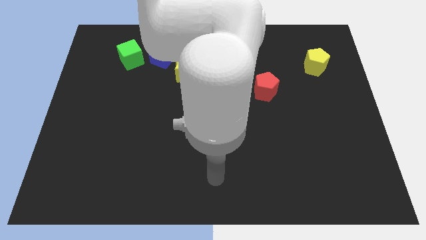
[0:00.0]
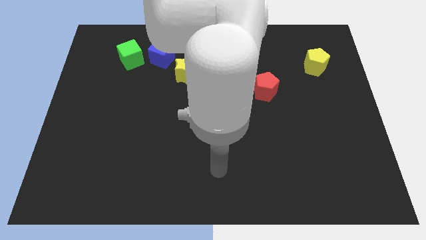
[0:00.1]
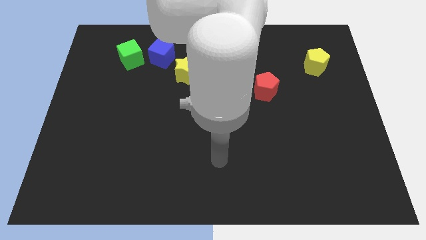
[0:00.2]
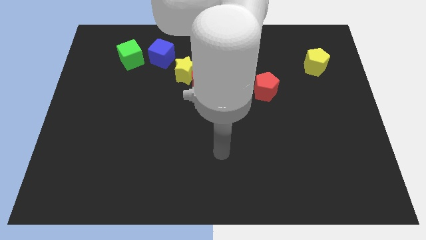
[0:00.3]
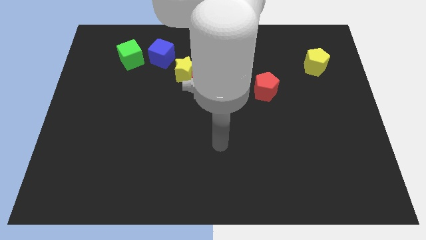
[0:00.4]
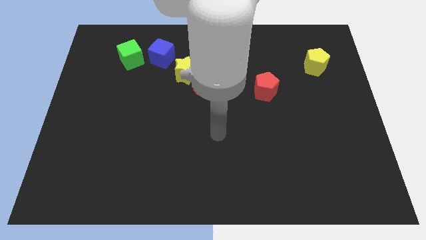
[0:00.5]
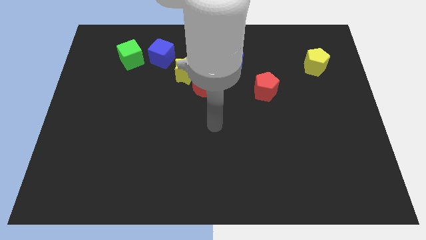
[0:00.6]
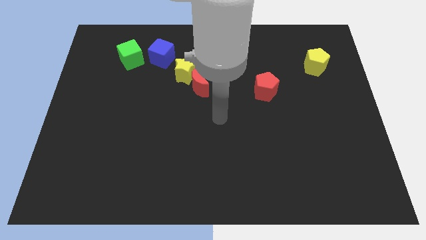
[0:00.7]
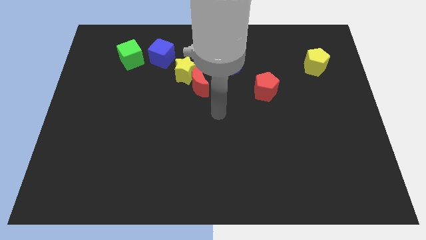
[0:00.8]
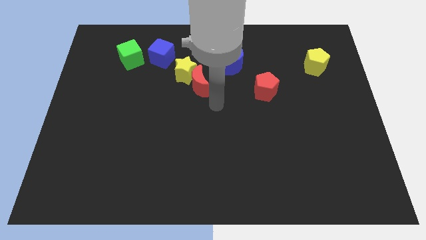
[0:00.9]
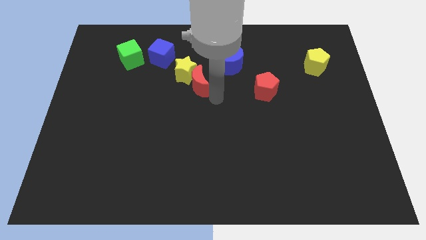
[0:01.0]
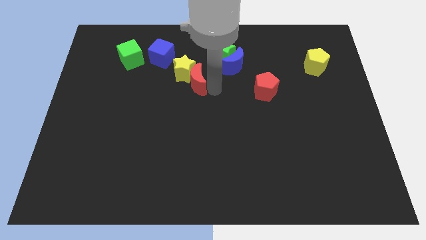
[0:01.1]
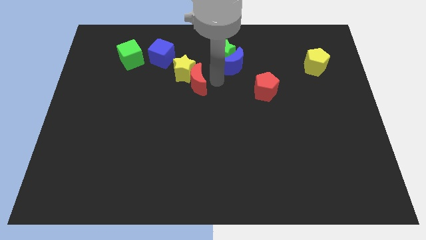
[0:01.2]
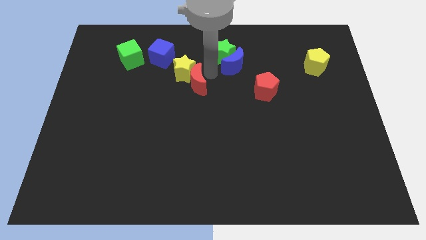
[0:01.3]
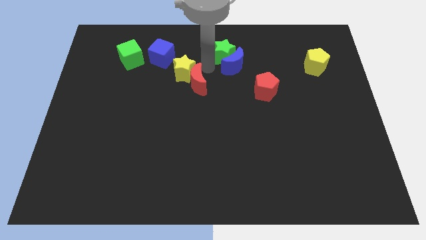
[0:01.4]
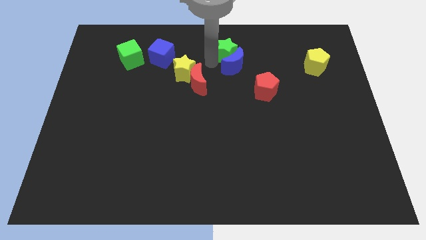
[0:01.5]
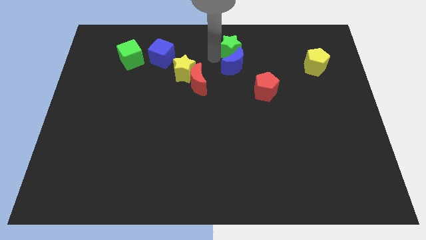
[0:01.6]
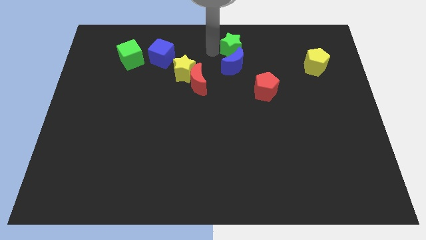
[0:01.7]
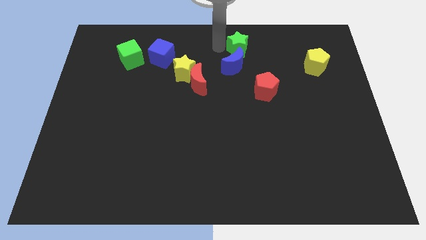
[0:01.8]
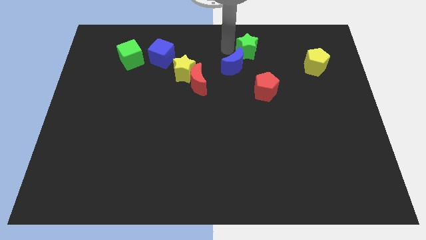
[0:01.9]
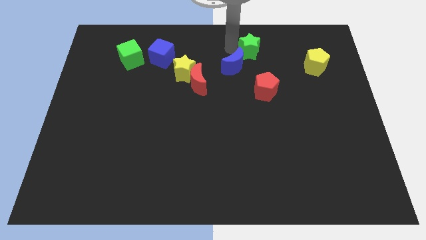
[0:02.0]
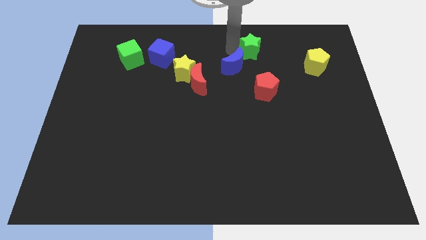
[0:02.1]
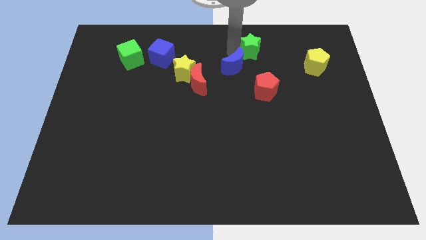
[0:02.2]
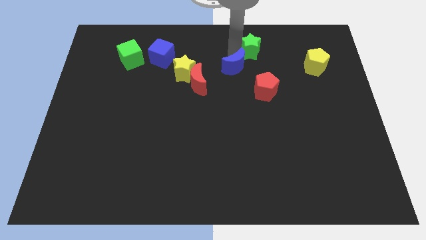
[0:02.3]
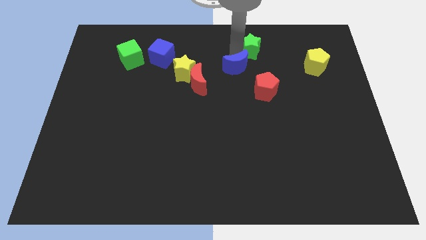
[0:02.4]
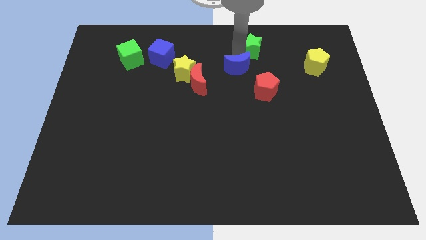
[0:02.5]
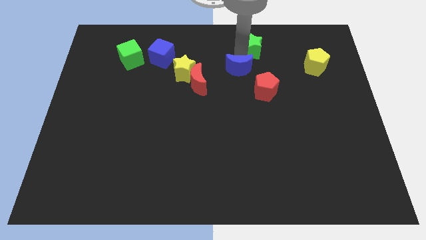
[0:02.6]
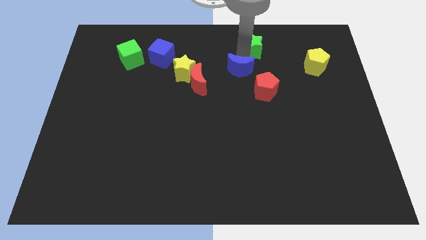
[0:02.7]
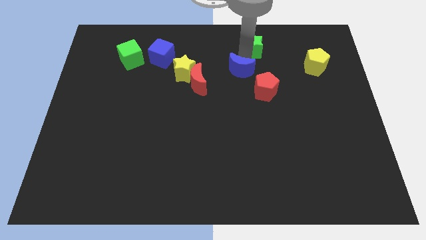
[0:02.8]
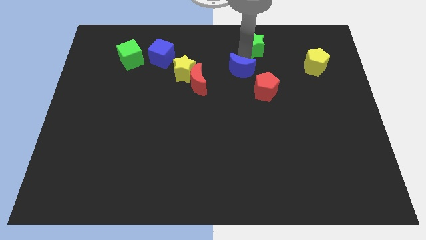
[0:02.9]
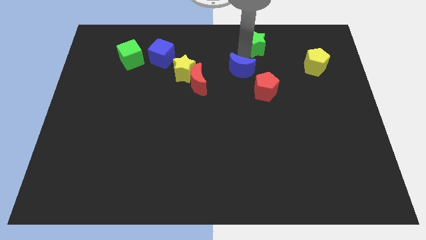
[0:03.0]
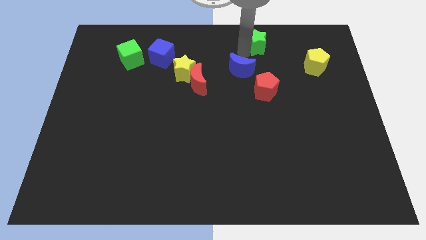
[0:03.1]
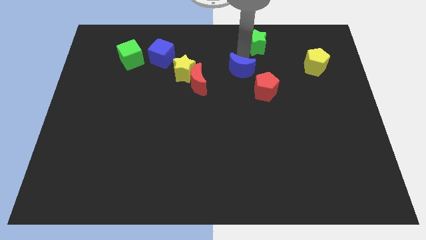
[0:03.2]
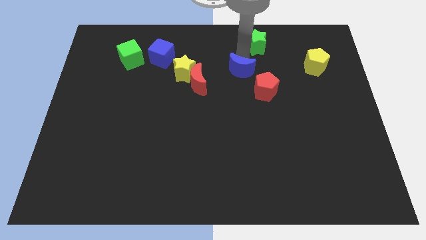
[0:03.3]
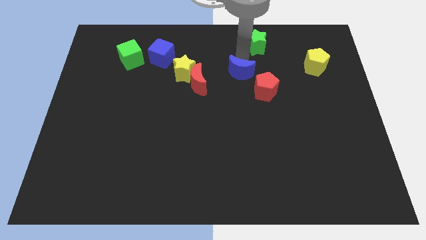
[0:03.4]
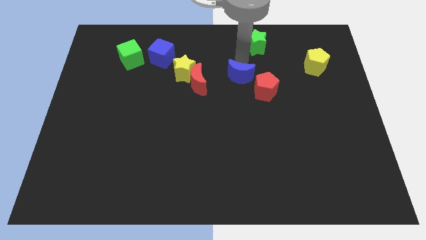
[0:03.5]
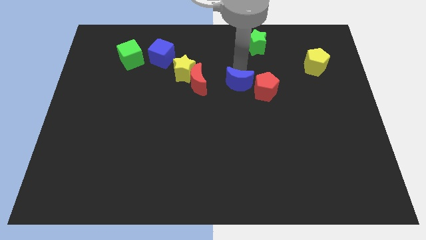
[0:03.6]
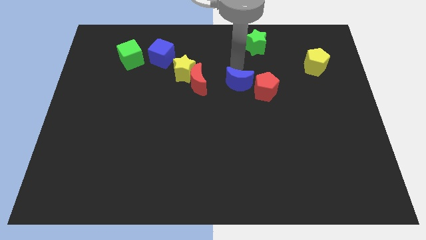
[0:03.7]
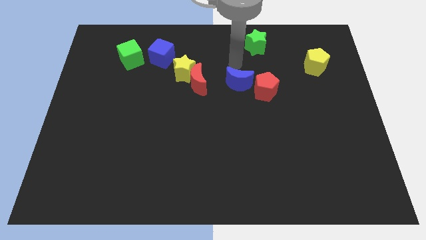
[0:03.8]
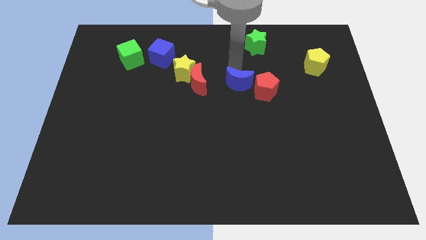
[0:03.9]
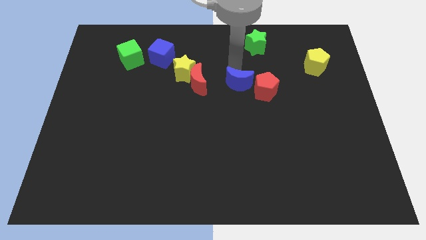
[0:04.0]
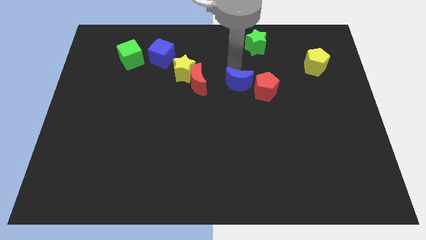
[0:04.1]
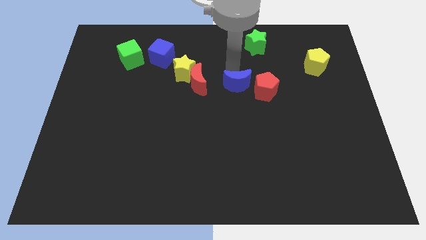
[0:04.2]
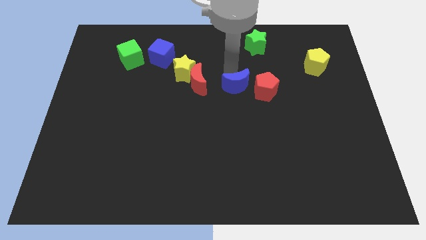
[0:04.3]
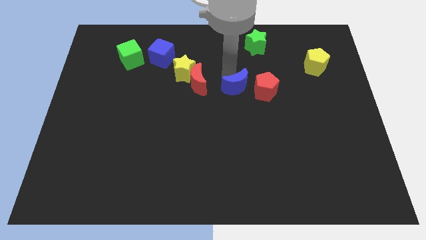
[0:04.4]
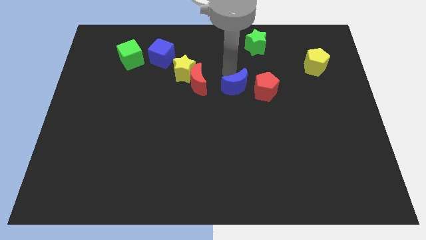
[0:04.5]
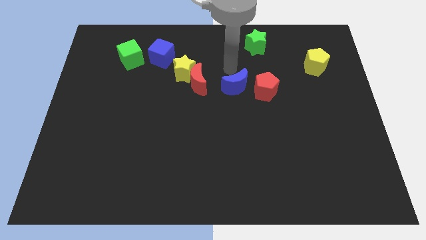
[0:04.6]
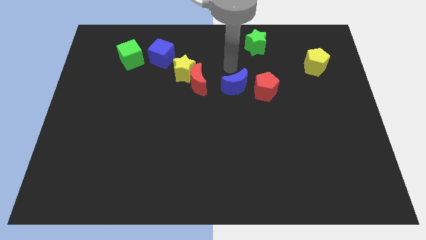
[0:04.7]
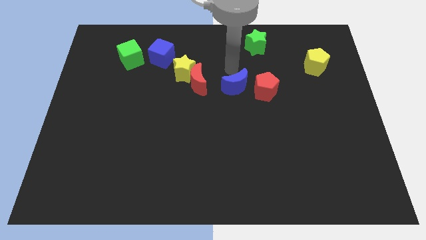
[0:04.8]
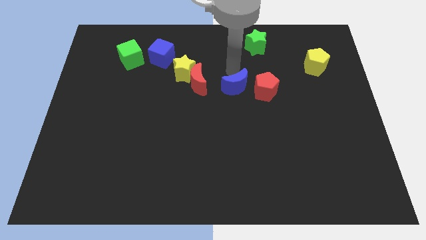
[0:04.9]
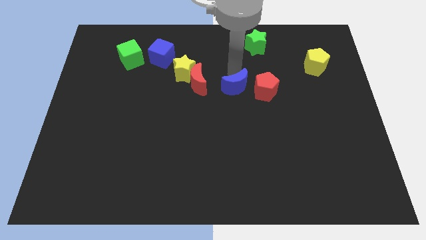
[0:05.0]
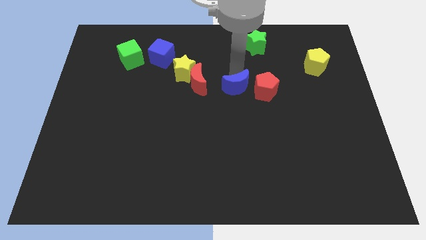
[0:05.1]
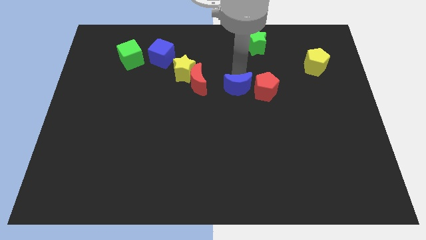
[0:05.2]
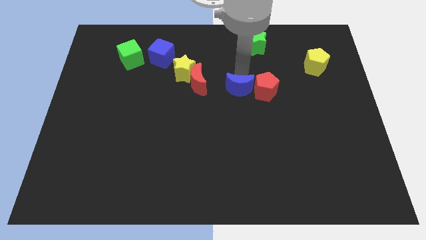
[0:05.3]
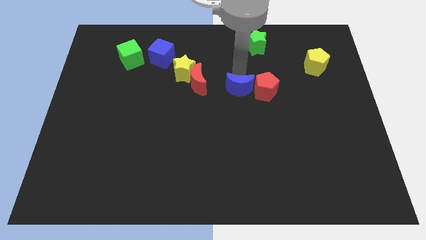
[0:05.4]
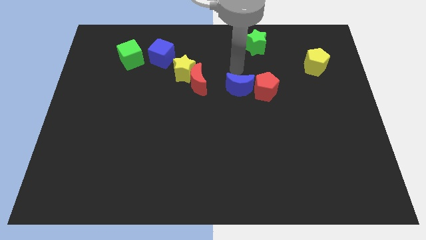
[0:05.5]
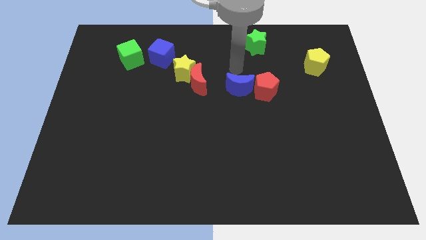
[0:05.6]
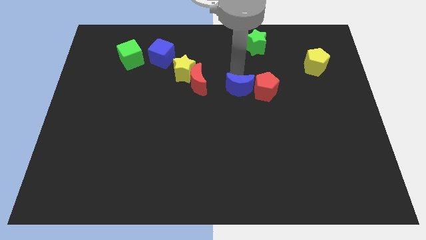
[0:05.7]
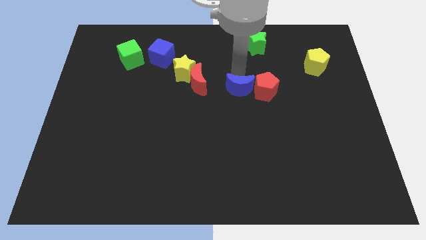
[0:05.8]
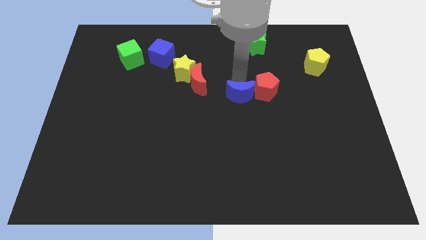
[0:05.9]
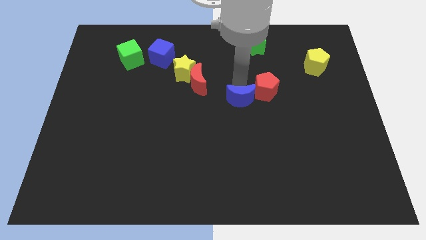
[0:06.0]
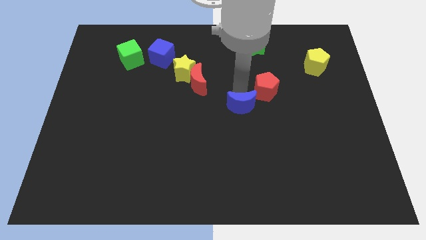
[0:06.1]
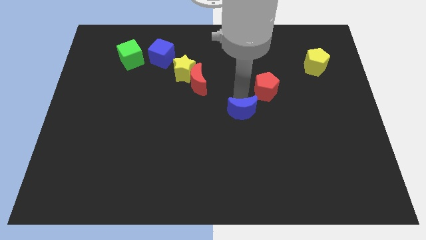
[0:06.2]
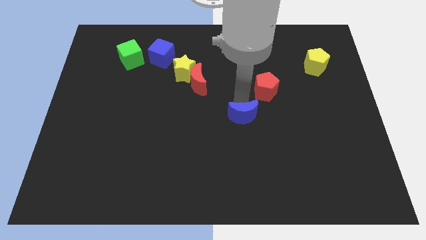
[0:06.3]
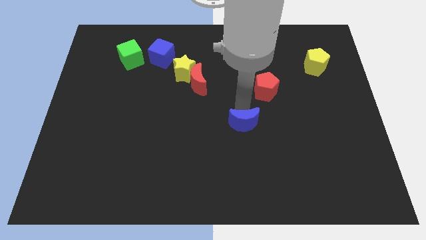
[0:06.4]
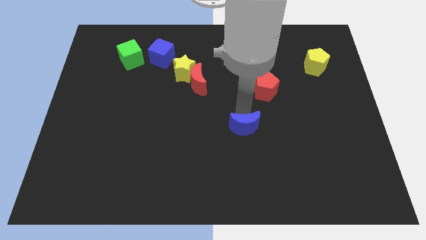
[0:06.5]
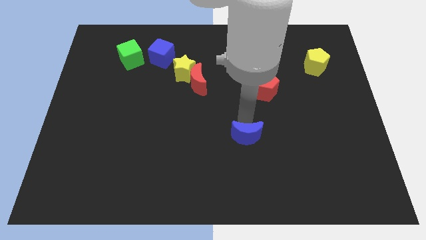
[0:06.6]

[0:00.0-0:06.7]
slide the blue moon down

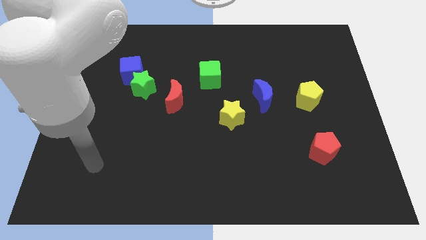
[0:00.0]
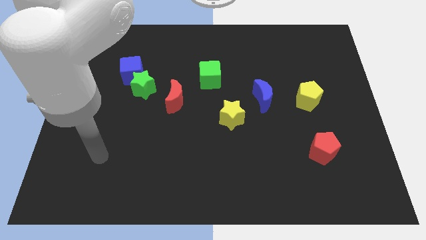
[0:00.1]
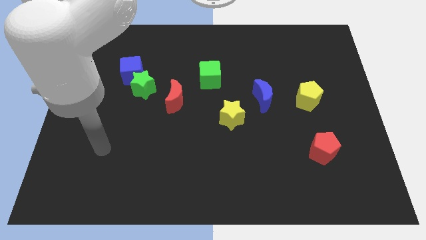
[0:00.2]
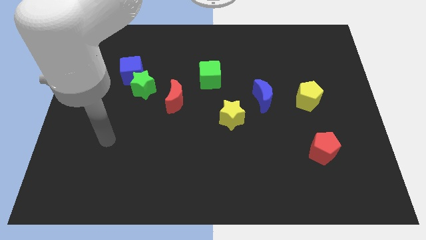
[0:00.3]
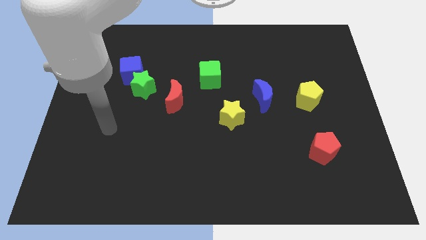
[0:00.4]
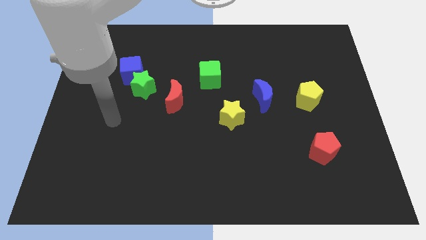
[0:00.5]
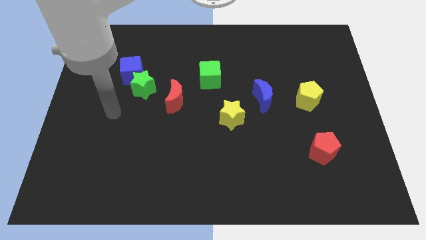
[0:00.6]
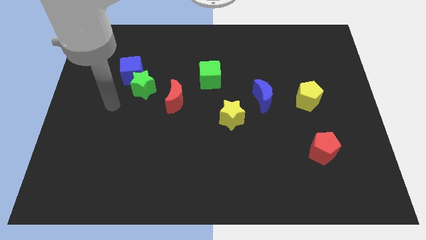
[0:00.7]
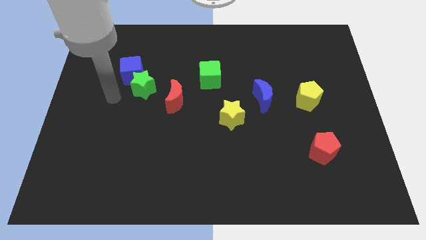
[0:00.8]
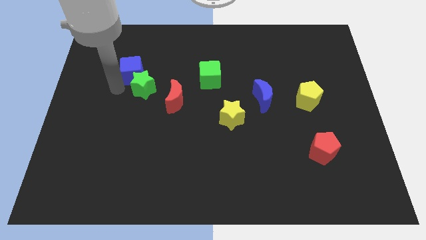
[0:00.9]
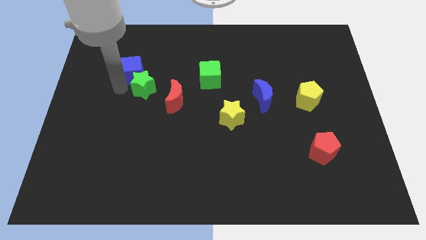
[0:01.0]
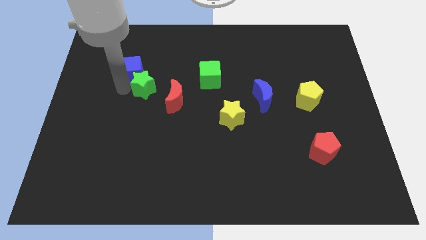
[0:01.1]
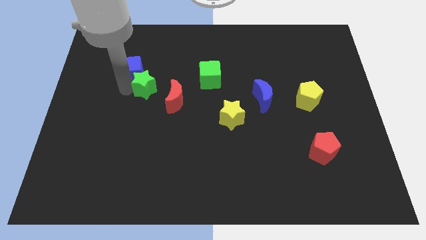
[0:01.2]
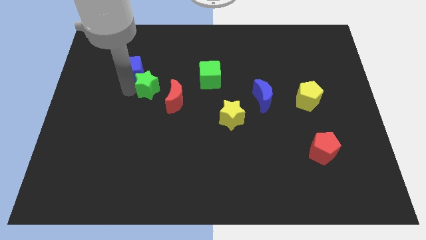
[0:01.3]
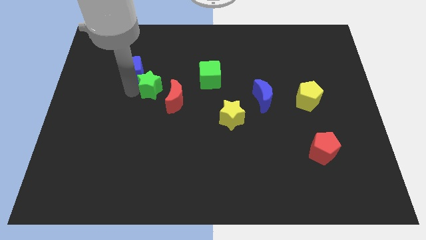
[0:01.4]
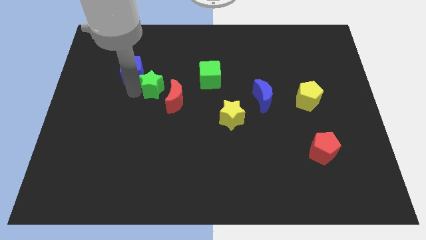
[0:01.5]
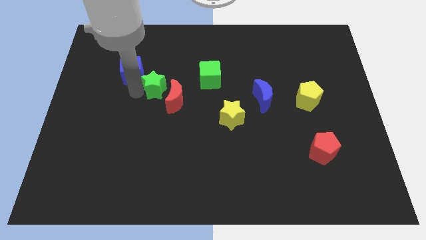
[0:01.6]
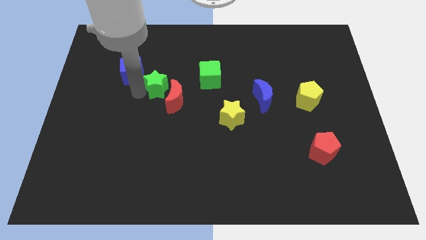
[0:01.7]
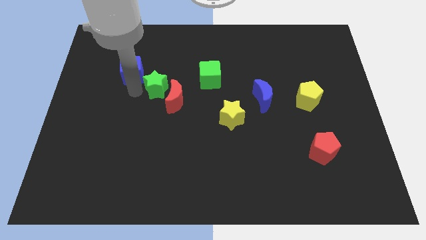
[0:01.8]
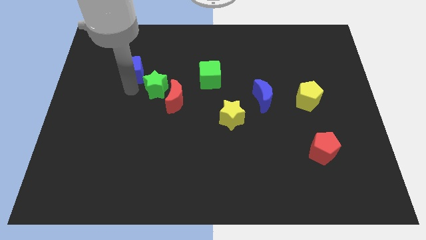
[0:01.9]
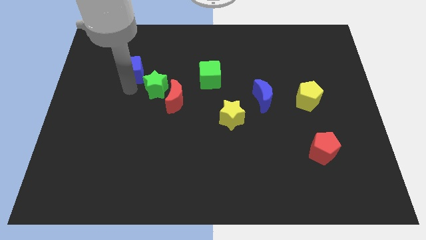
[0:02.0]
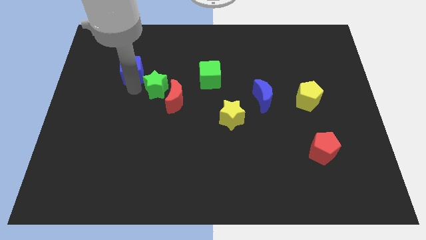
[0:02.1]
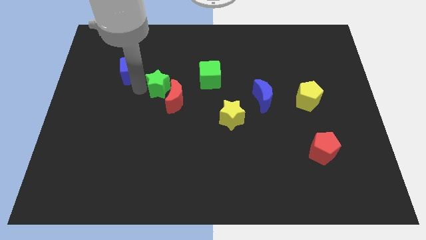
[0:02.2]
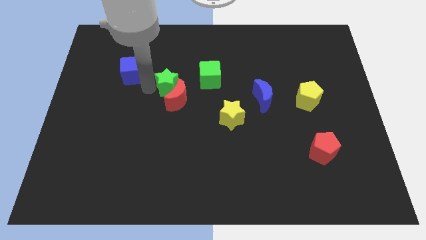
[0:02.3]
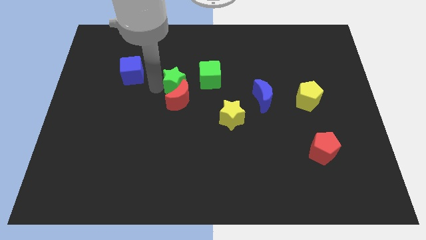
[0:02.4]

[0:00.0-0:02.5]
move the green star right slightly
